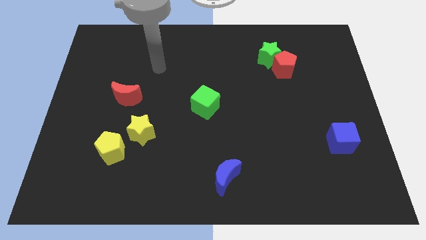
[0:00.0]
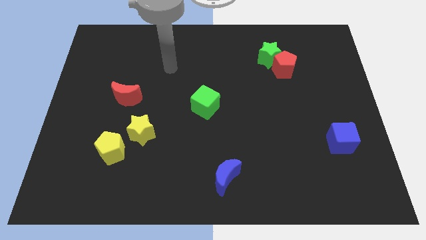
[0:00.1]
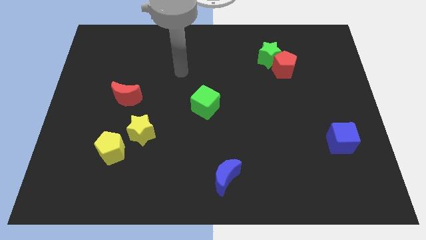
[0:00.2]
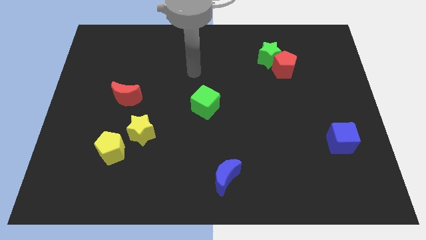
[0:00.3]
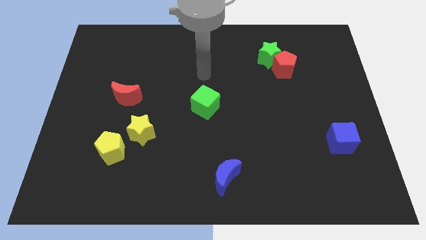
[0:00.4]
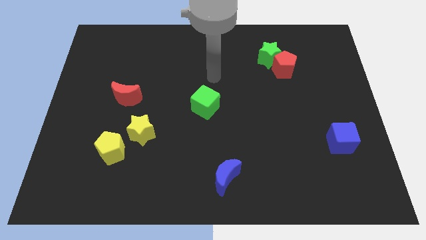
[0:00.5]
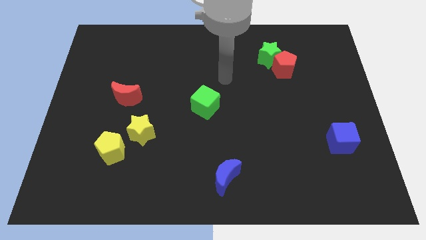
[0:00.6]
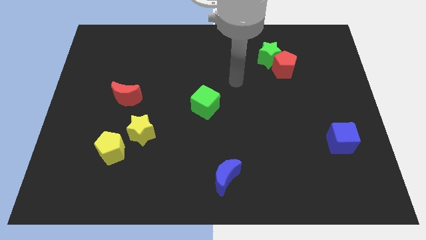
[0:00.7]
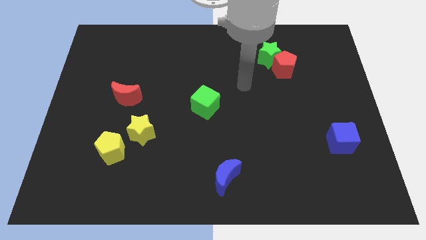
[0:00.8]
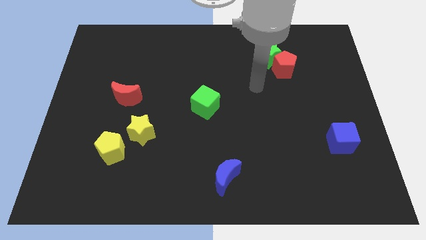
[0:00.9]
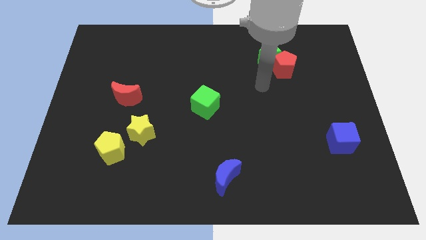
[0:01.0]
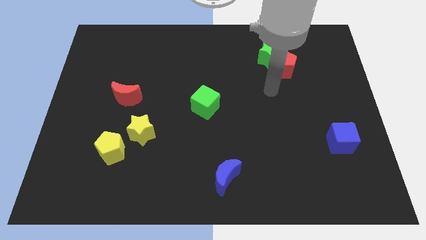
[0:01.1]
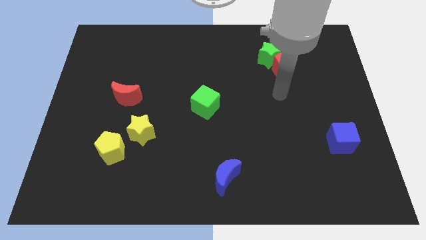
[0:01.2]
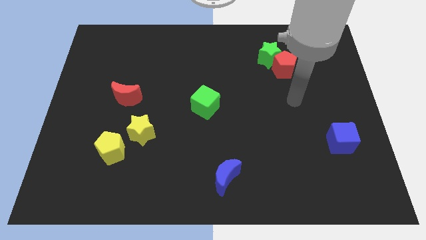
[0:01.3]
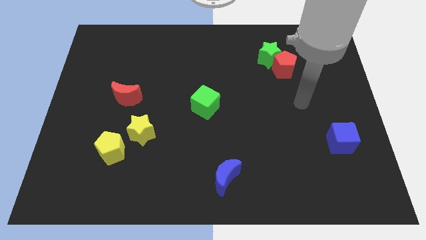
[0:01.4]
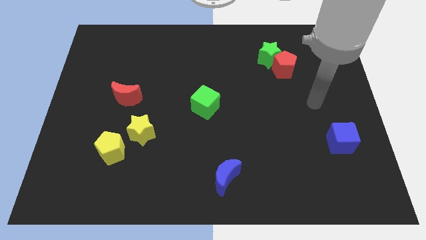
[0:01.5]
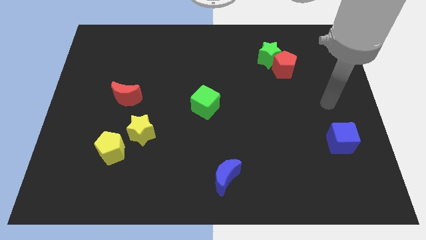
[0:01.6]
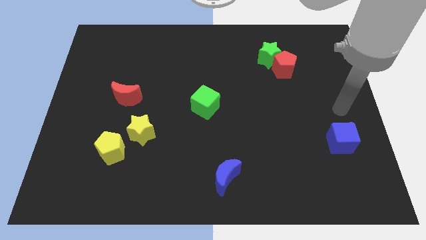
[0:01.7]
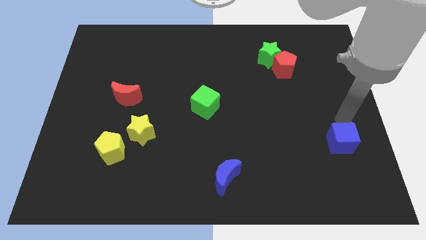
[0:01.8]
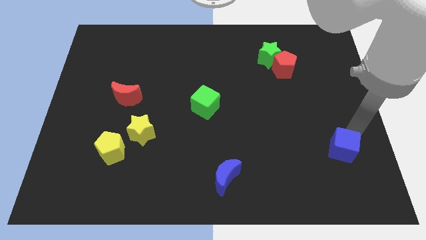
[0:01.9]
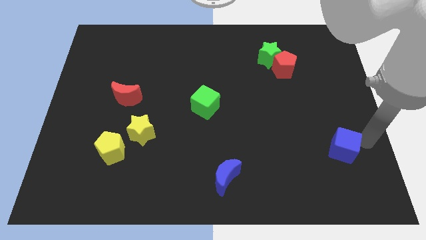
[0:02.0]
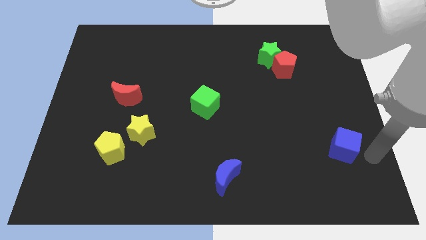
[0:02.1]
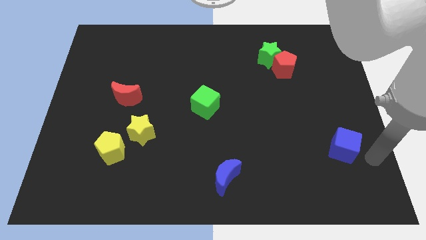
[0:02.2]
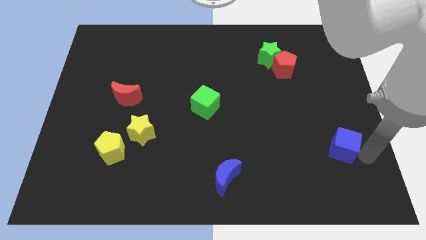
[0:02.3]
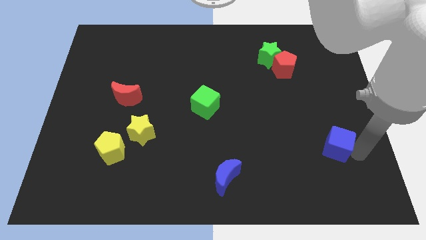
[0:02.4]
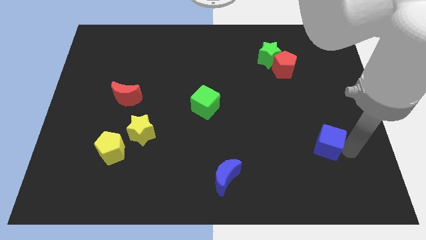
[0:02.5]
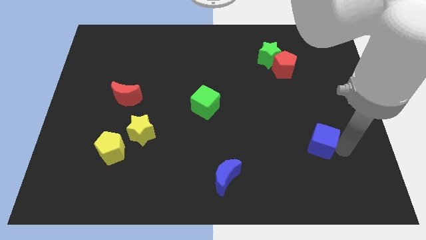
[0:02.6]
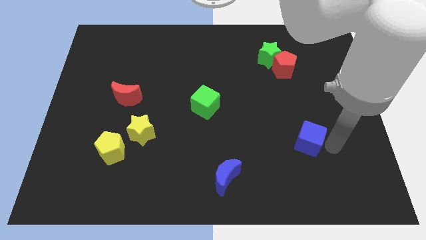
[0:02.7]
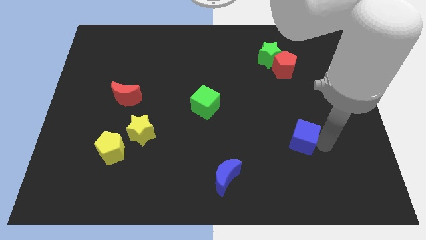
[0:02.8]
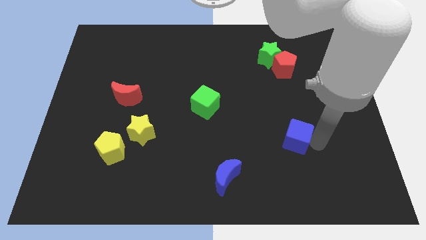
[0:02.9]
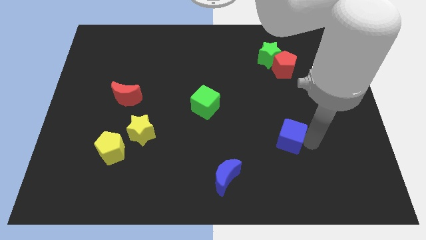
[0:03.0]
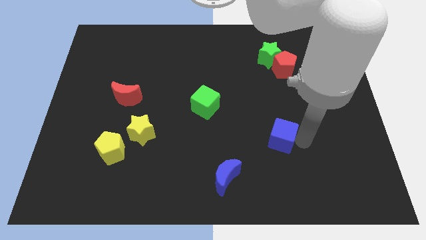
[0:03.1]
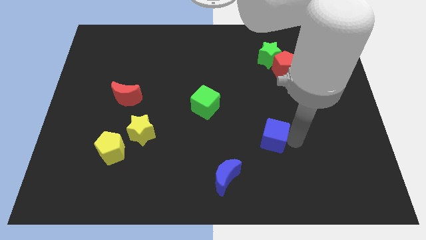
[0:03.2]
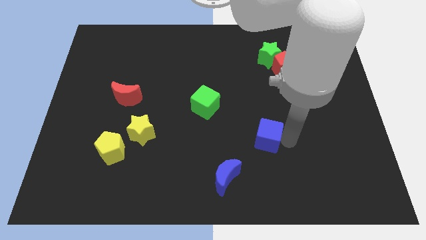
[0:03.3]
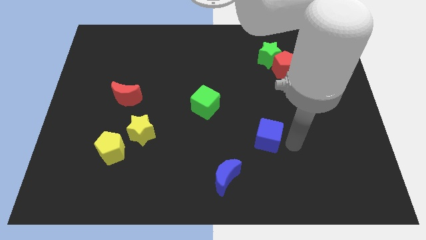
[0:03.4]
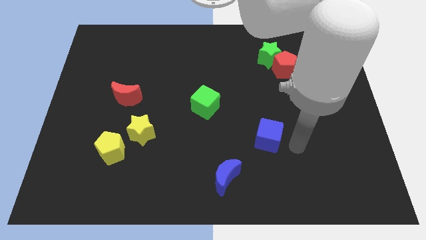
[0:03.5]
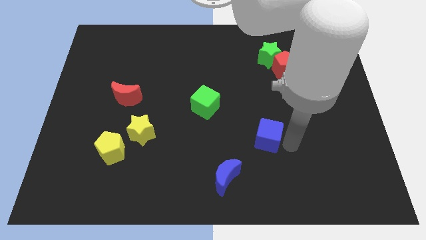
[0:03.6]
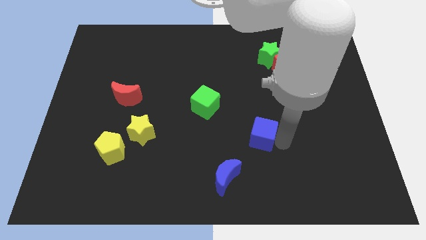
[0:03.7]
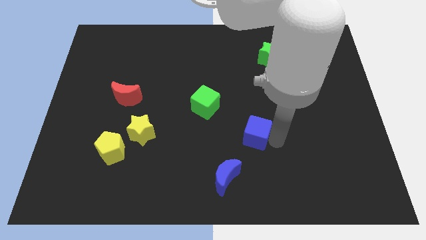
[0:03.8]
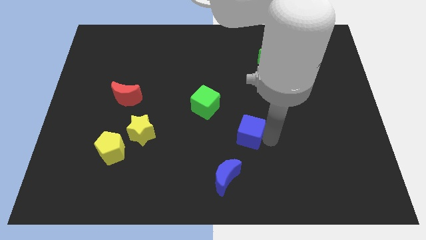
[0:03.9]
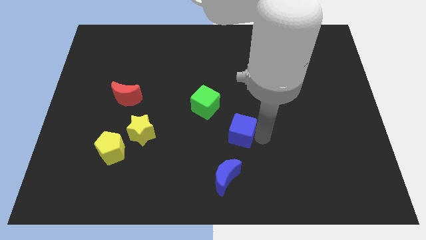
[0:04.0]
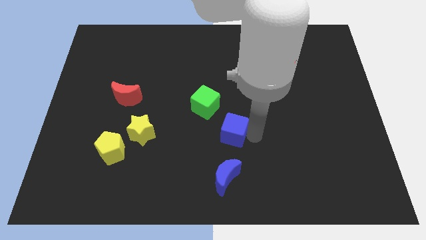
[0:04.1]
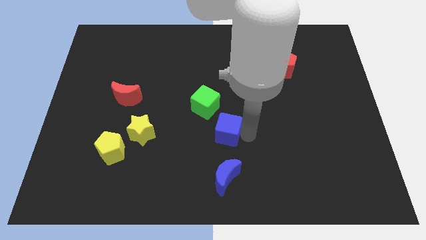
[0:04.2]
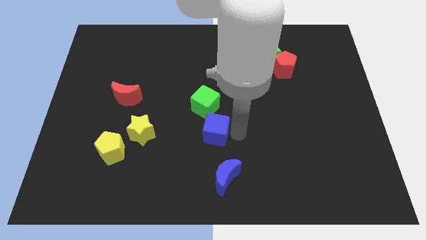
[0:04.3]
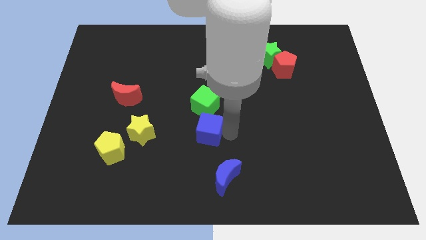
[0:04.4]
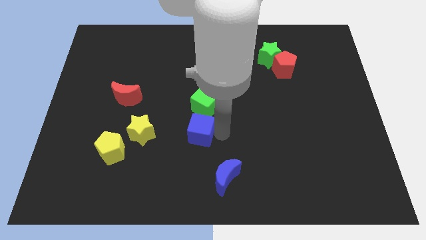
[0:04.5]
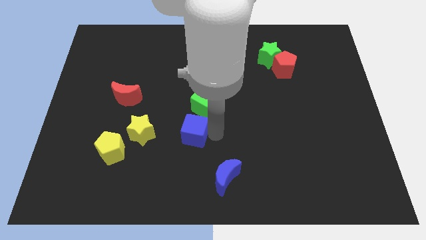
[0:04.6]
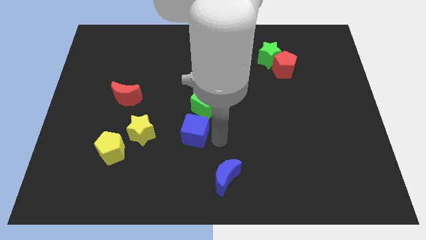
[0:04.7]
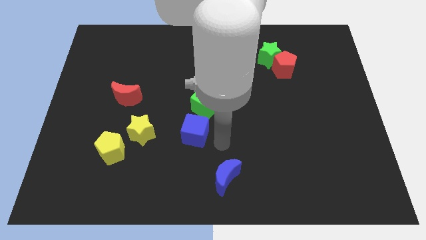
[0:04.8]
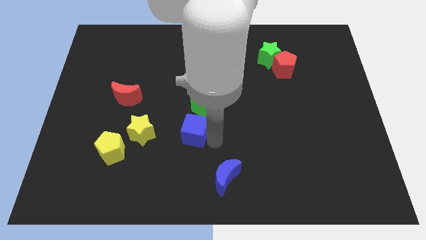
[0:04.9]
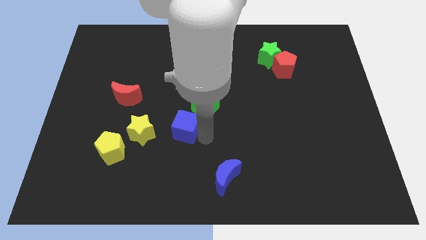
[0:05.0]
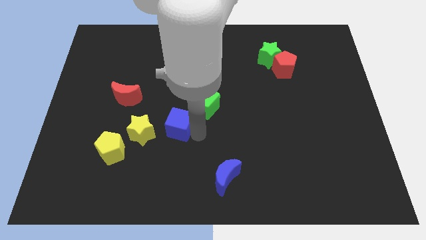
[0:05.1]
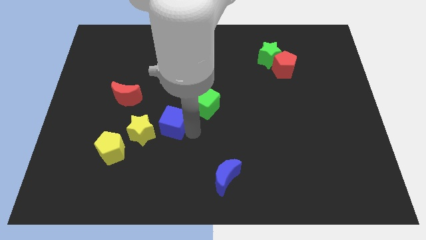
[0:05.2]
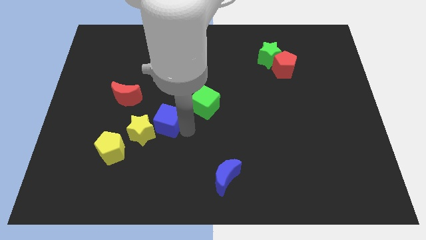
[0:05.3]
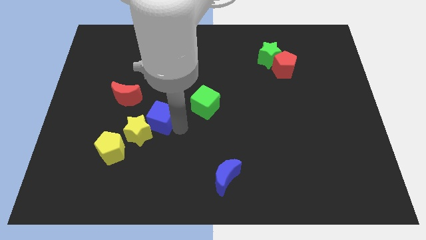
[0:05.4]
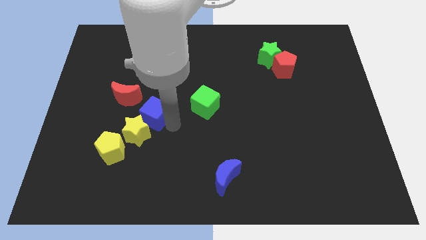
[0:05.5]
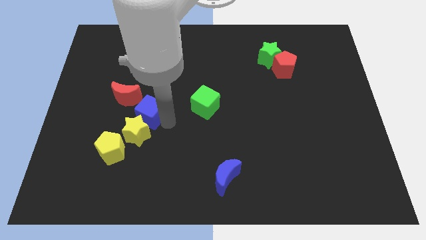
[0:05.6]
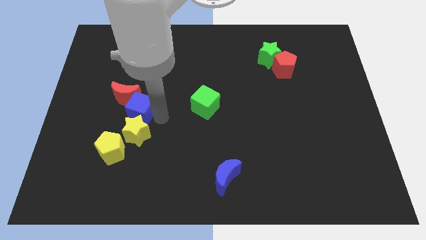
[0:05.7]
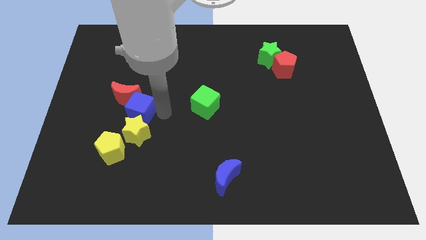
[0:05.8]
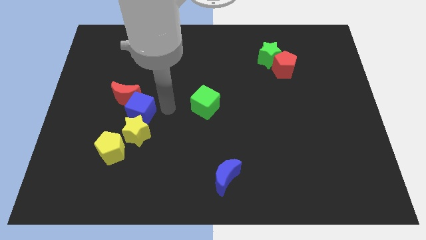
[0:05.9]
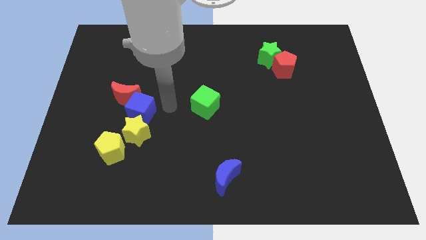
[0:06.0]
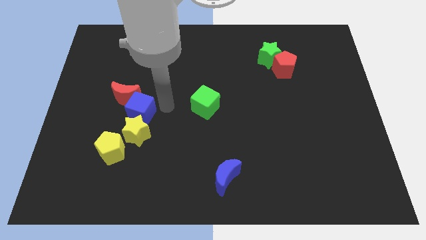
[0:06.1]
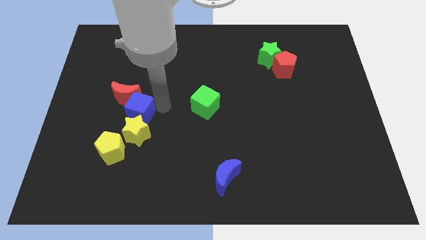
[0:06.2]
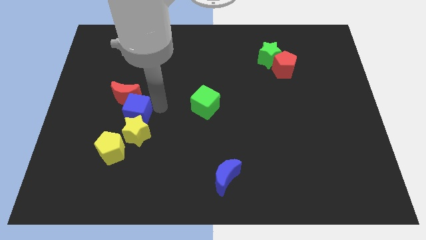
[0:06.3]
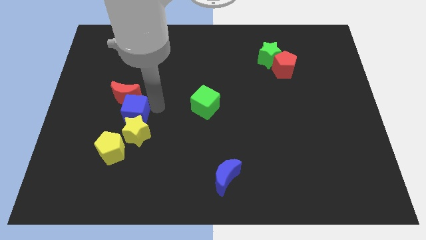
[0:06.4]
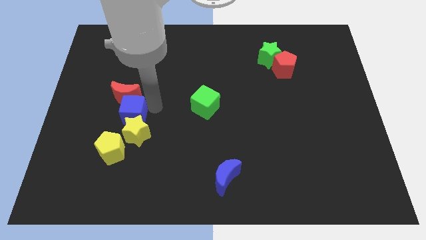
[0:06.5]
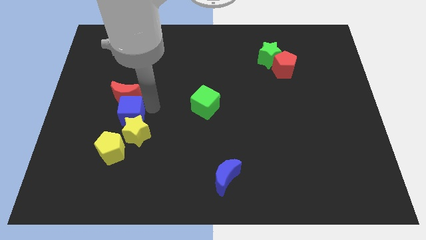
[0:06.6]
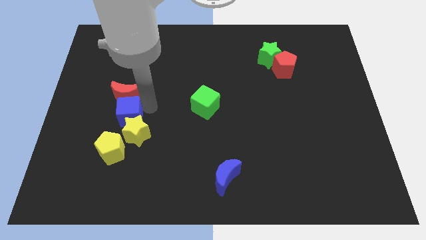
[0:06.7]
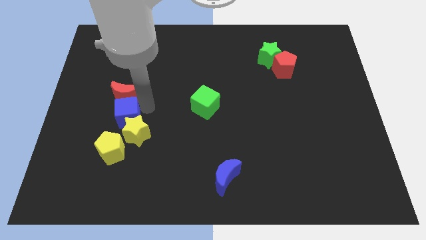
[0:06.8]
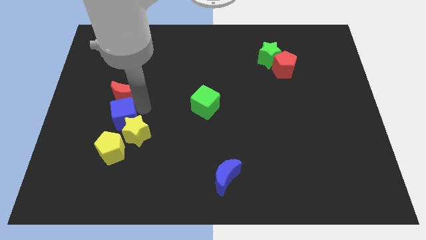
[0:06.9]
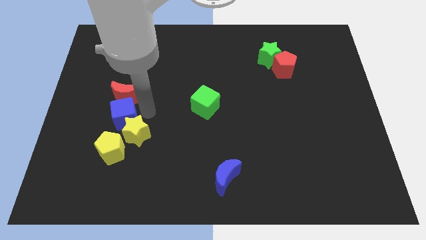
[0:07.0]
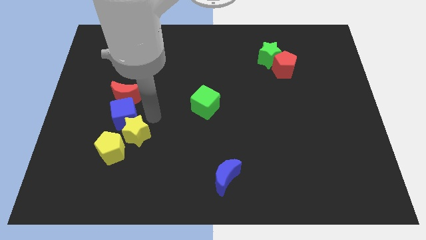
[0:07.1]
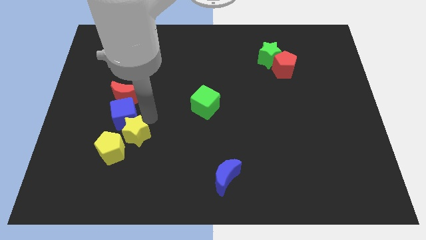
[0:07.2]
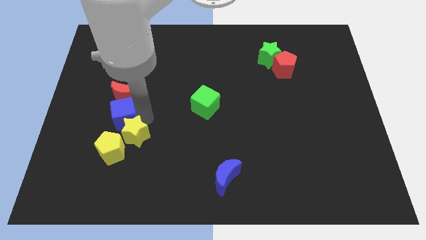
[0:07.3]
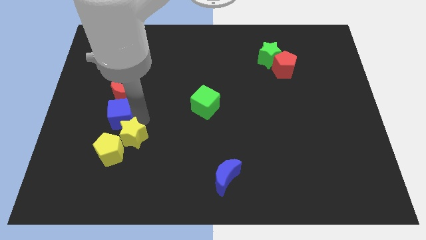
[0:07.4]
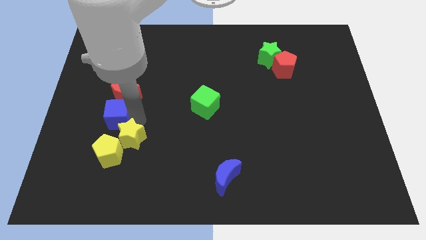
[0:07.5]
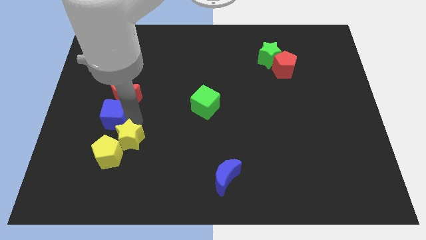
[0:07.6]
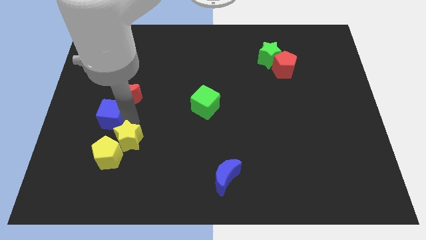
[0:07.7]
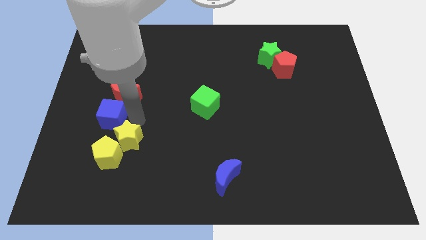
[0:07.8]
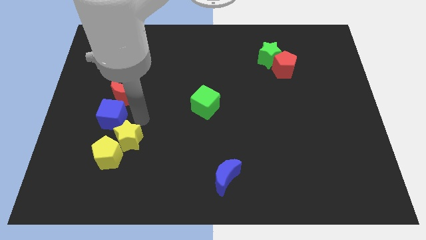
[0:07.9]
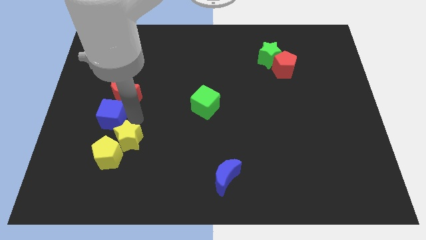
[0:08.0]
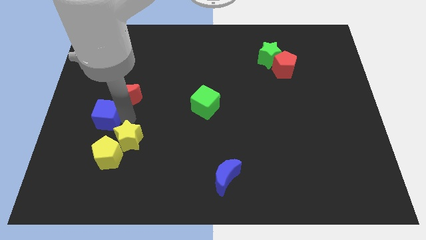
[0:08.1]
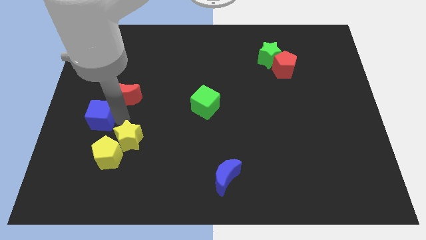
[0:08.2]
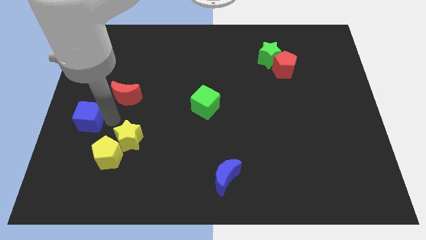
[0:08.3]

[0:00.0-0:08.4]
push the blue cube to the center left
